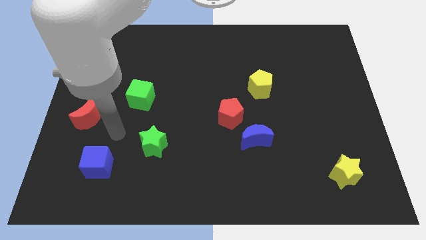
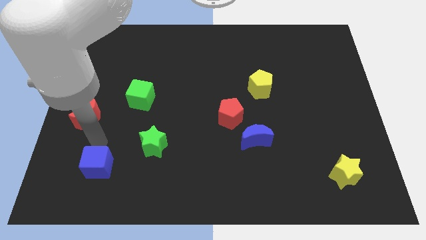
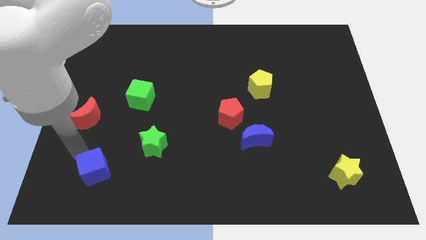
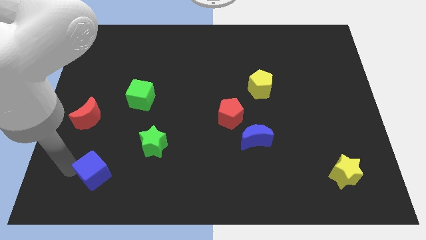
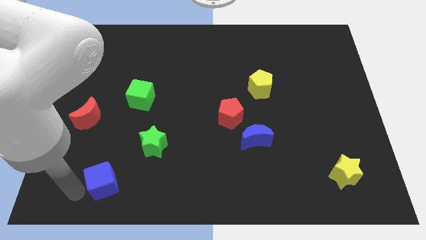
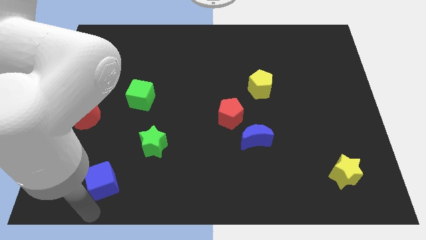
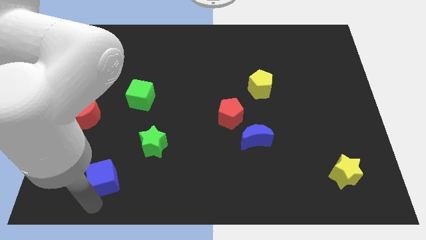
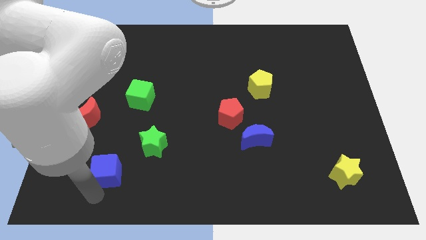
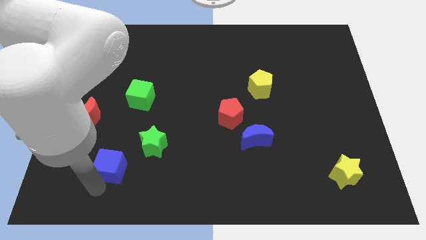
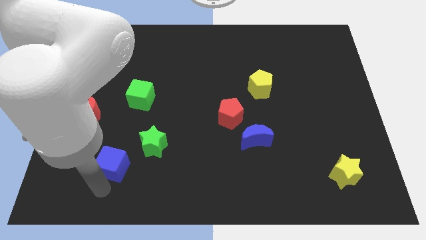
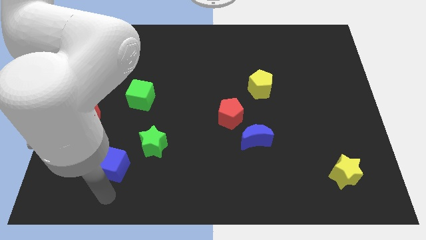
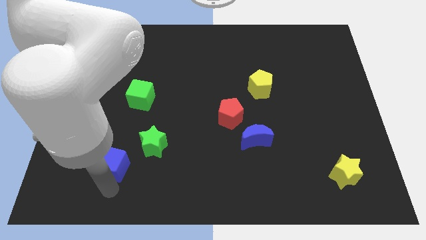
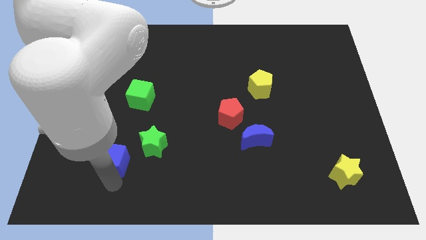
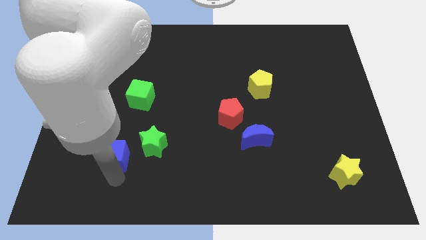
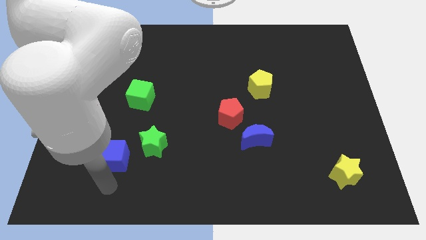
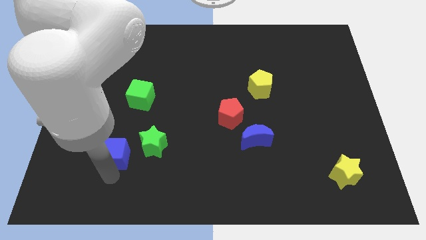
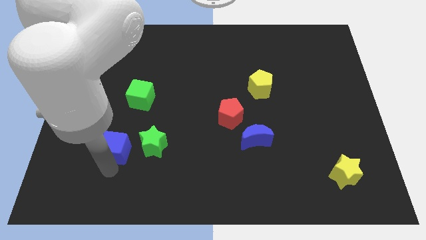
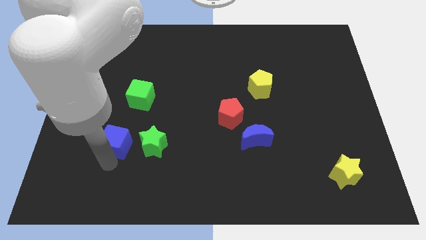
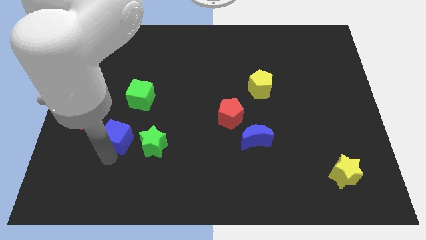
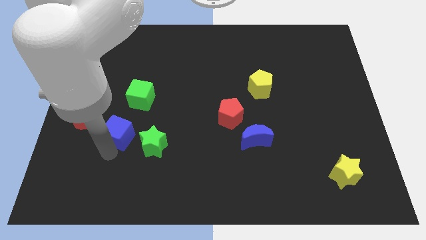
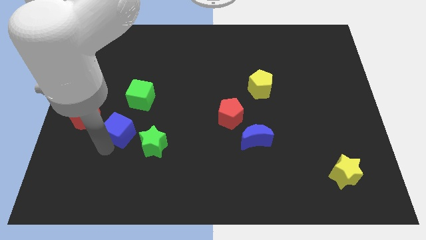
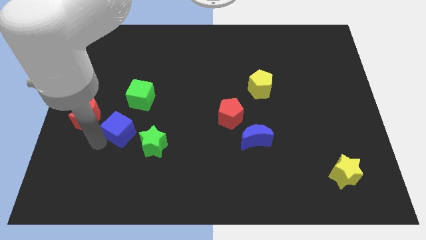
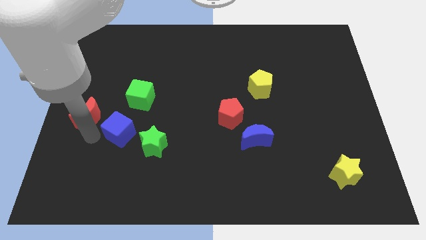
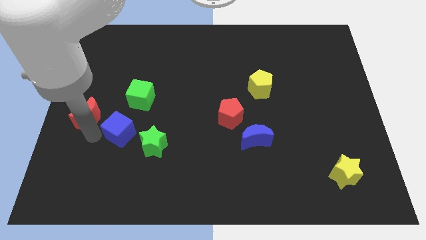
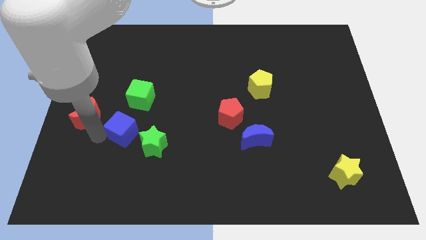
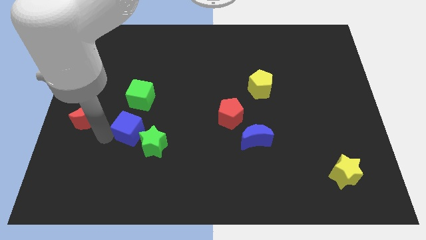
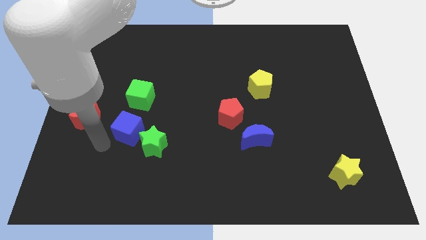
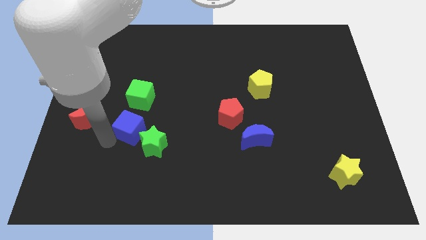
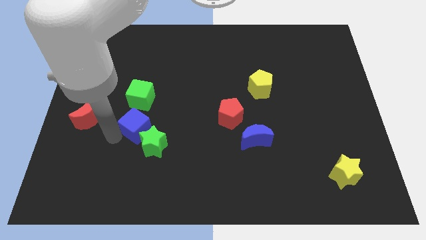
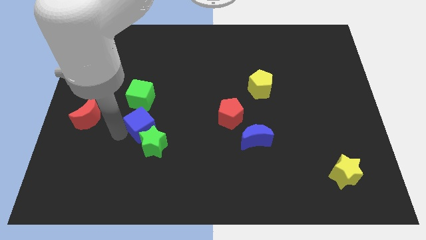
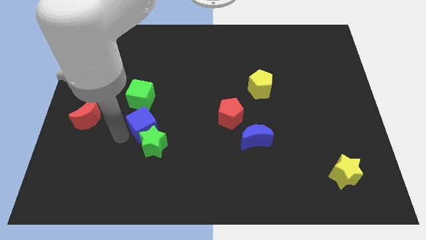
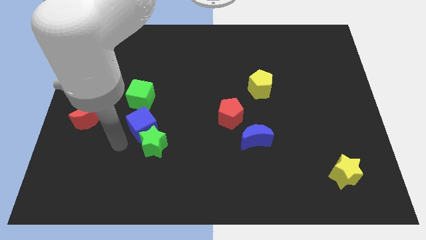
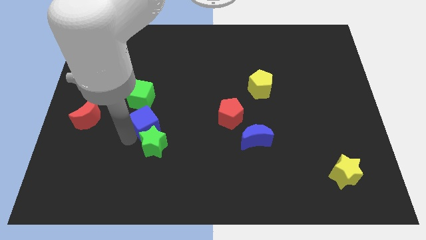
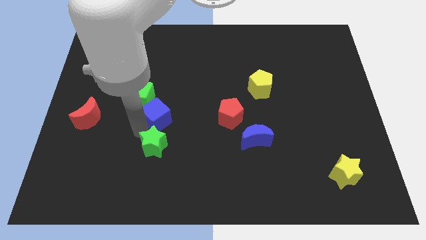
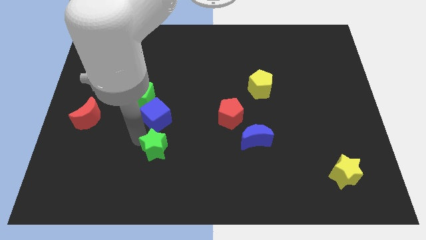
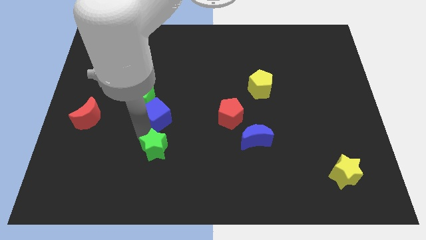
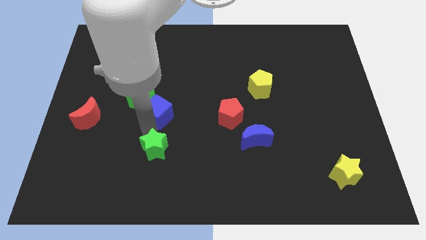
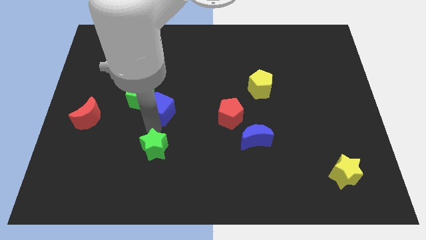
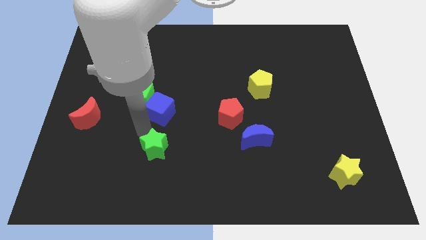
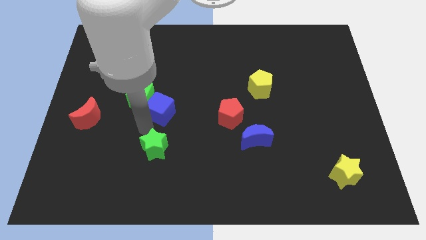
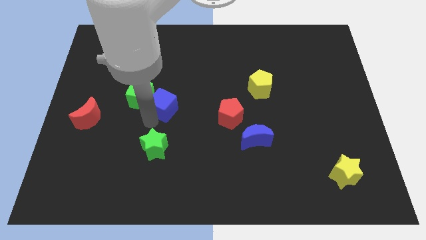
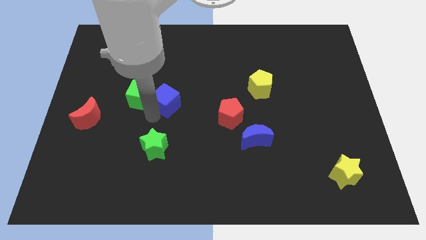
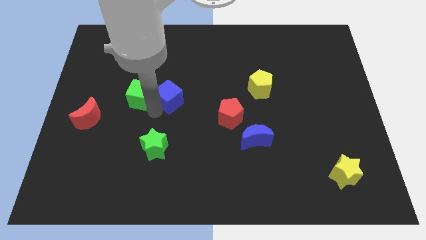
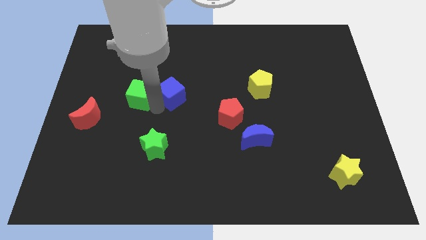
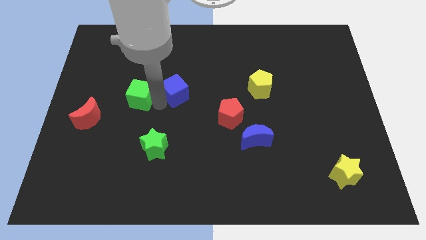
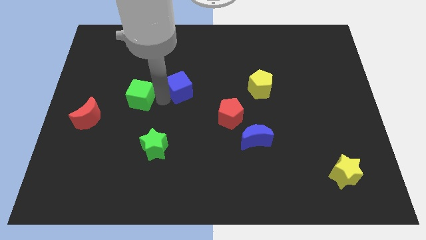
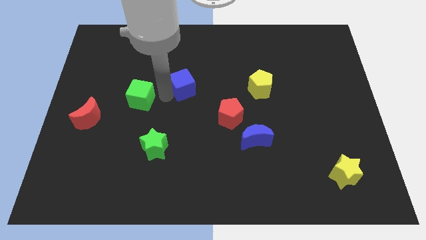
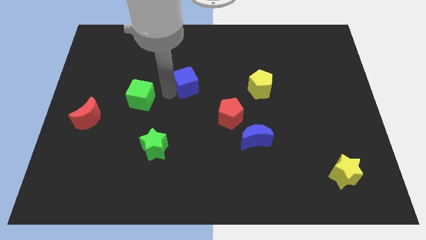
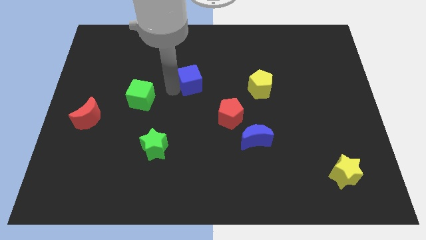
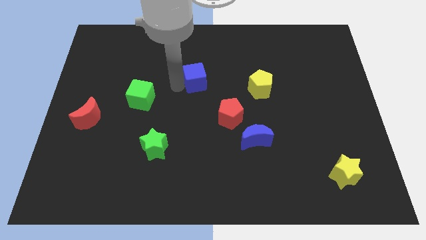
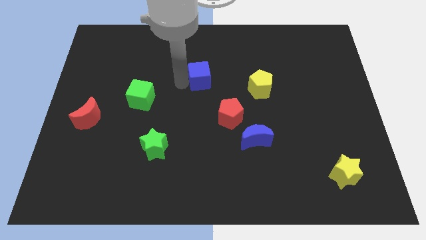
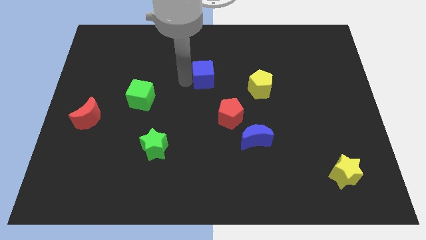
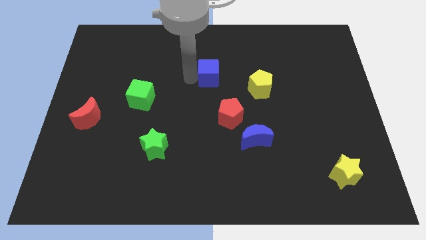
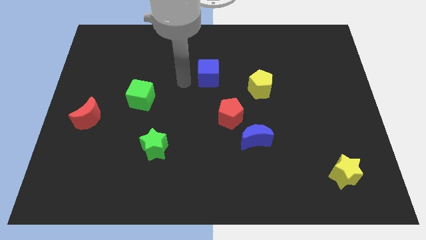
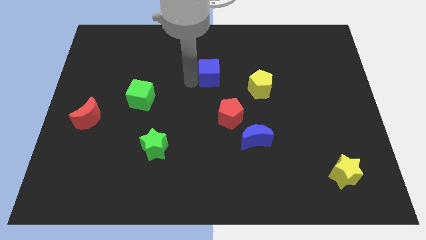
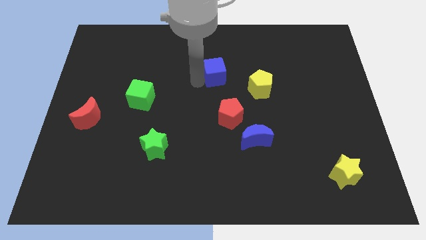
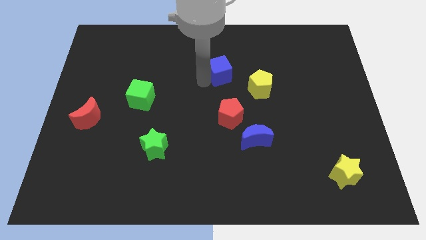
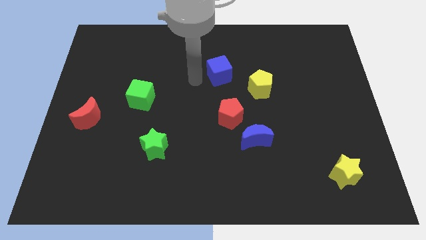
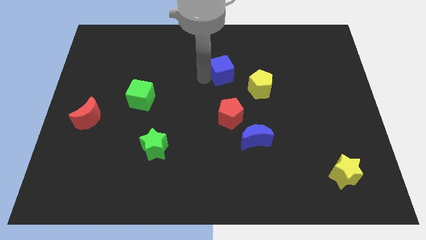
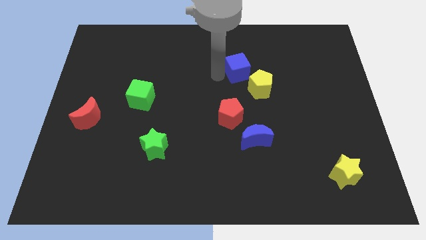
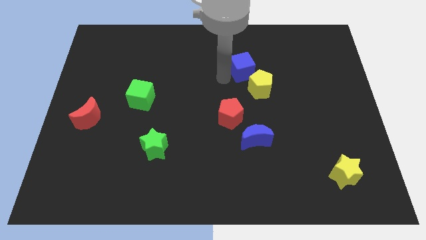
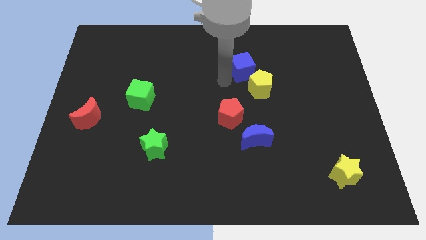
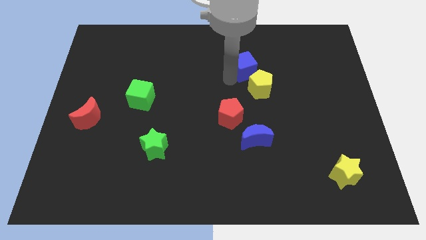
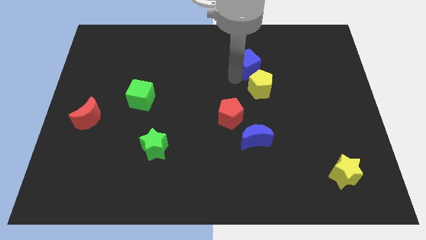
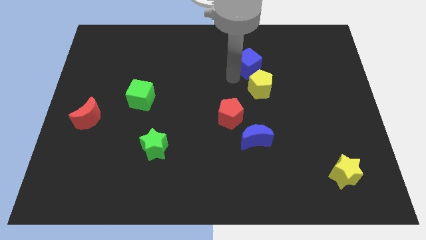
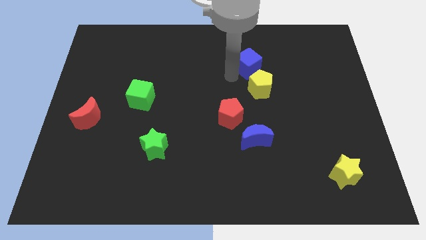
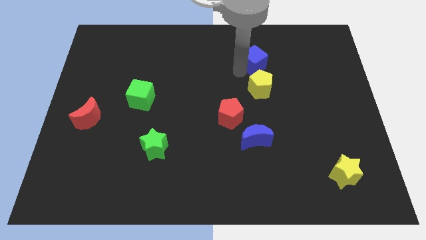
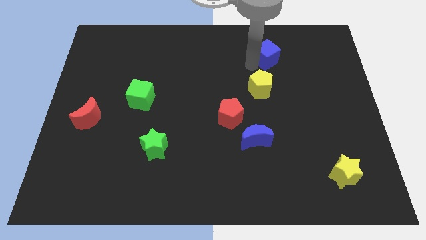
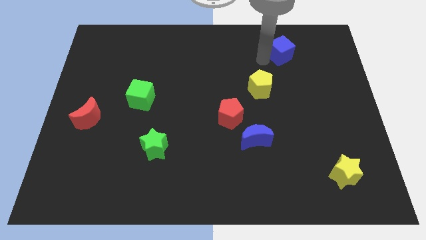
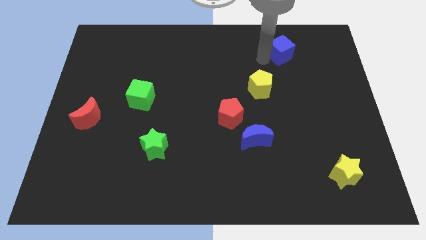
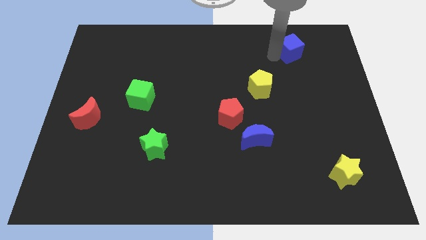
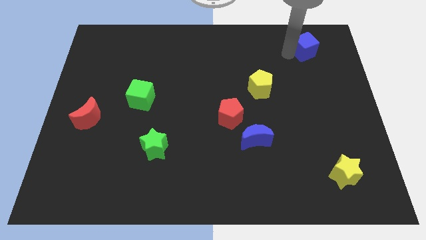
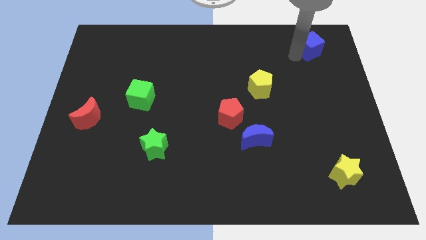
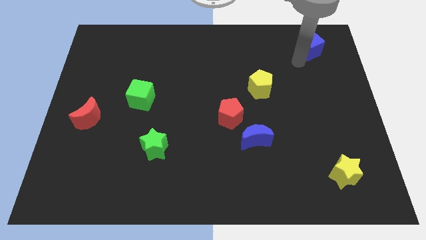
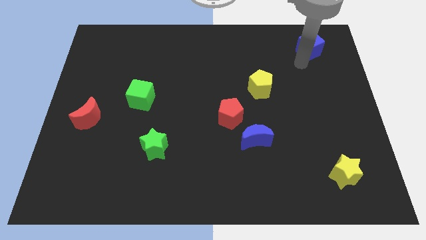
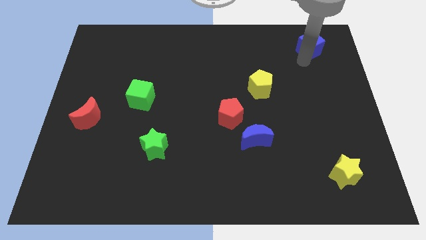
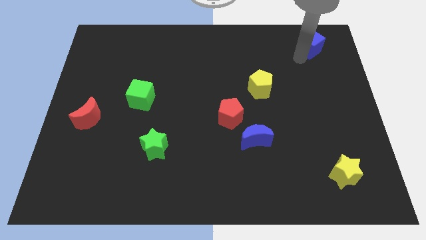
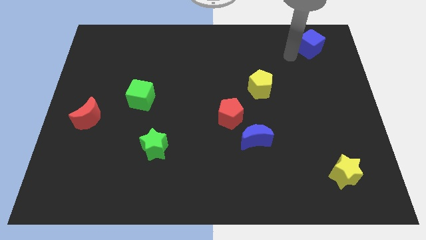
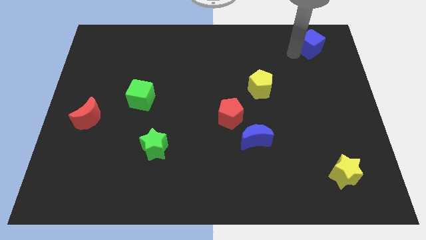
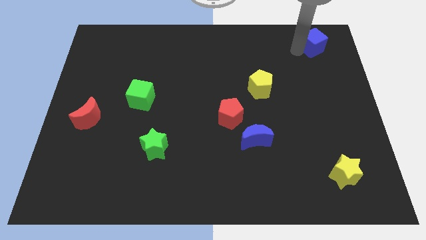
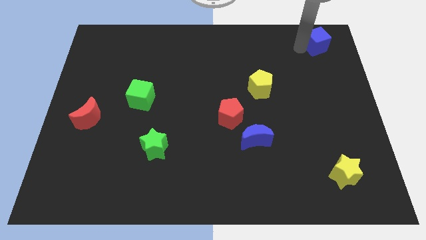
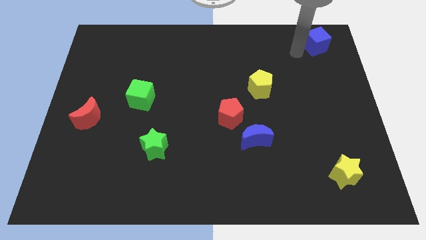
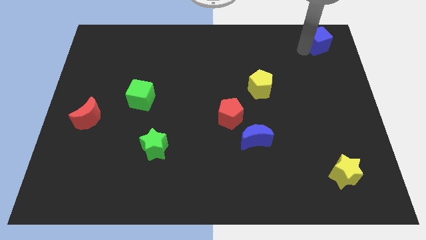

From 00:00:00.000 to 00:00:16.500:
put the blue cube to the top right corner
